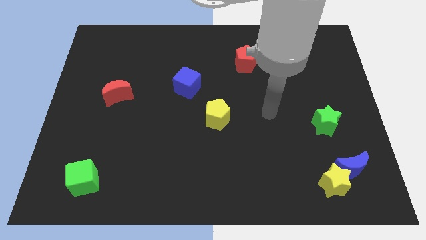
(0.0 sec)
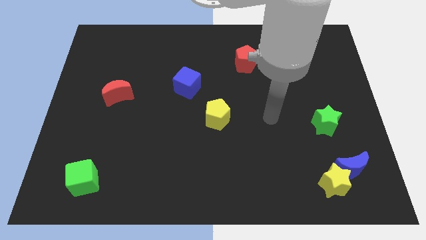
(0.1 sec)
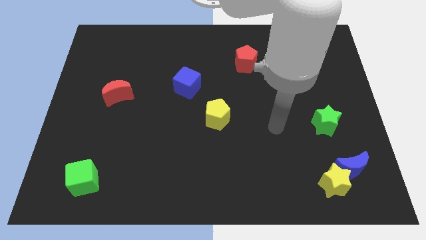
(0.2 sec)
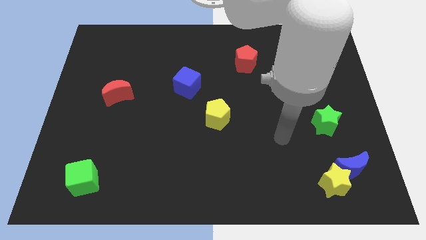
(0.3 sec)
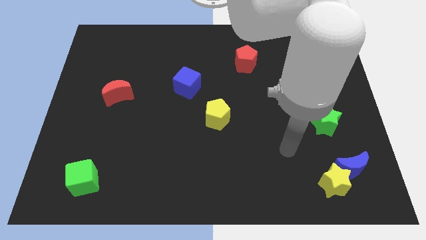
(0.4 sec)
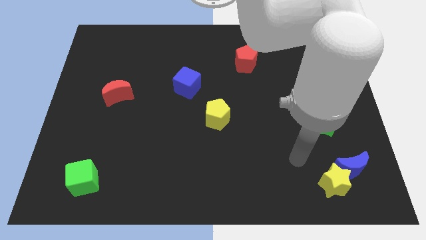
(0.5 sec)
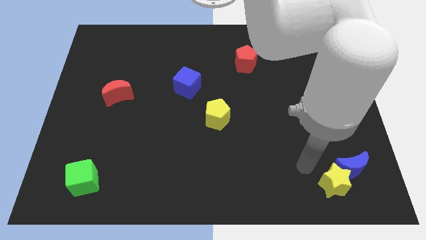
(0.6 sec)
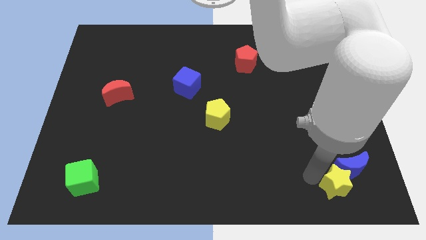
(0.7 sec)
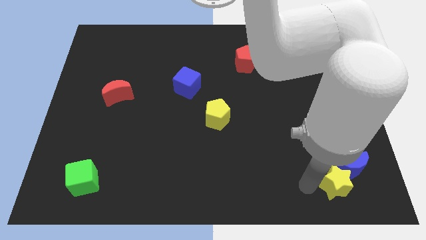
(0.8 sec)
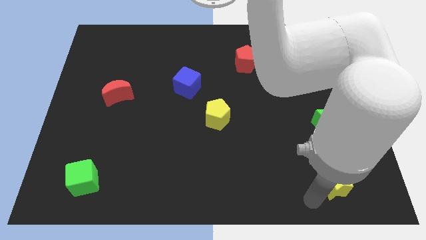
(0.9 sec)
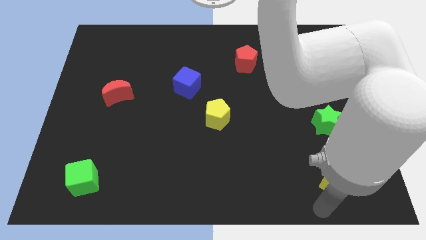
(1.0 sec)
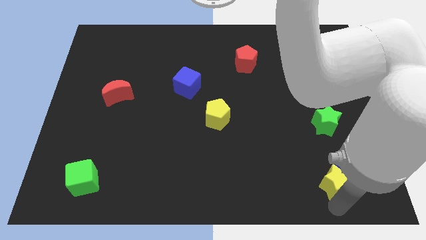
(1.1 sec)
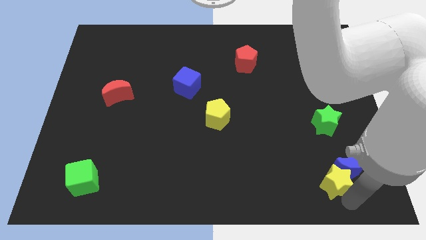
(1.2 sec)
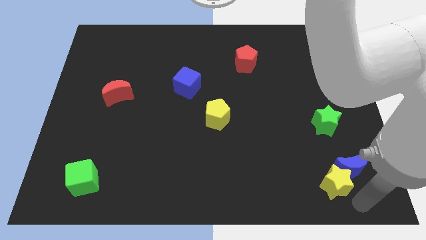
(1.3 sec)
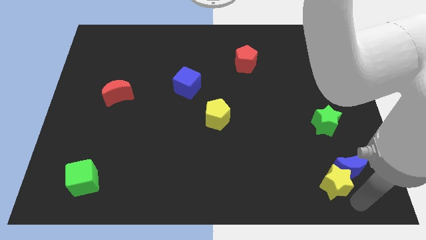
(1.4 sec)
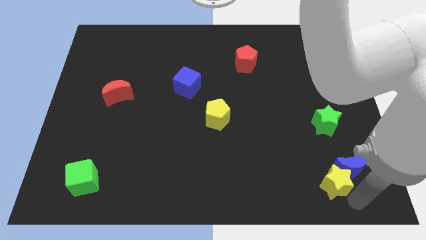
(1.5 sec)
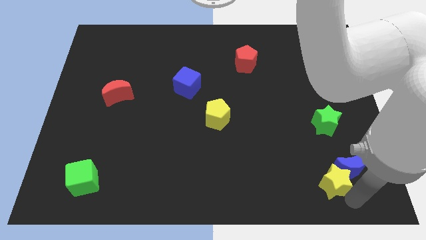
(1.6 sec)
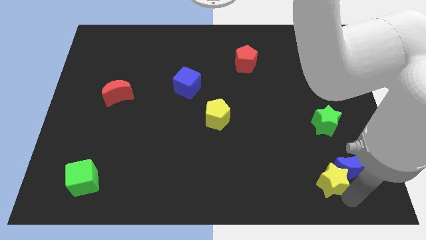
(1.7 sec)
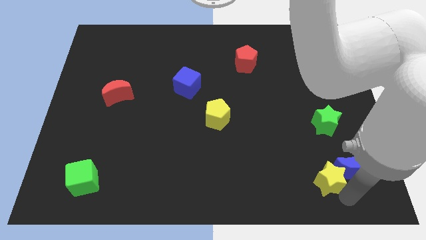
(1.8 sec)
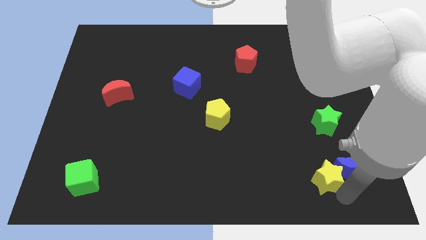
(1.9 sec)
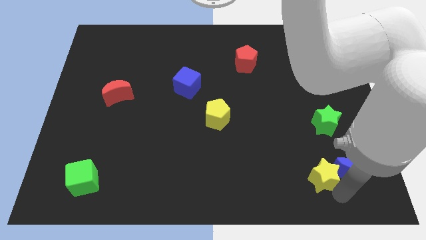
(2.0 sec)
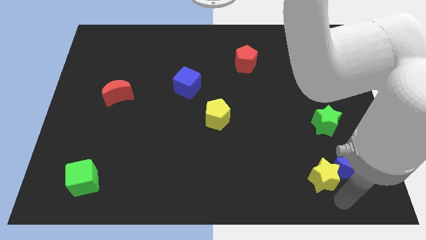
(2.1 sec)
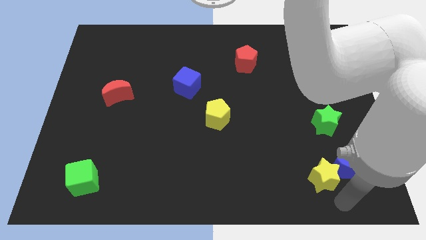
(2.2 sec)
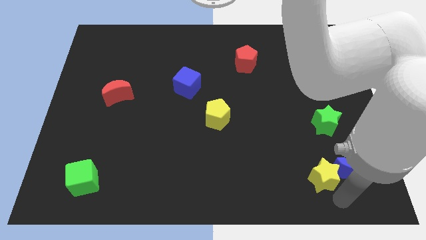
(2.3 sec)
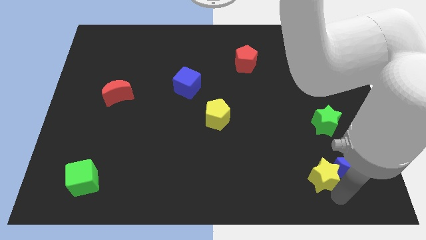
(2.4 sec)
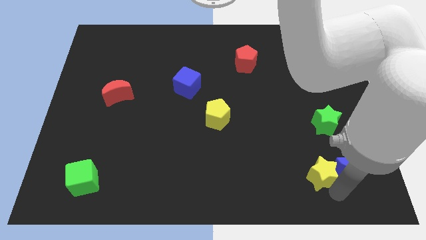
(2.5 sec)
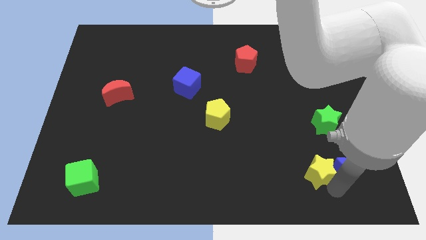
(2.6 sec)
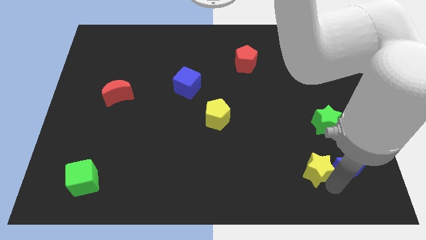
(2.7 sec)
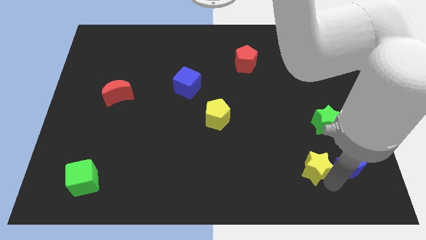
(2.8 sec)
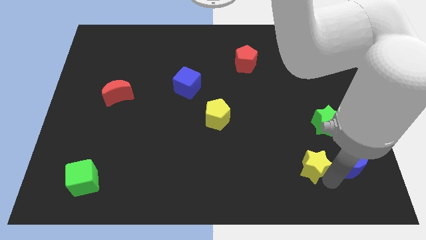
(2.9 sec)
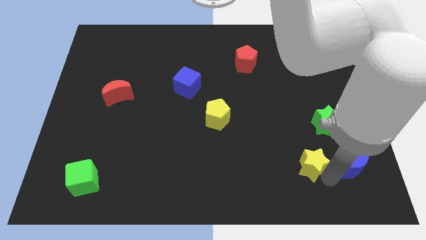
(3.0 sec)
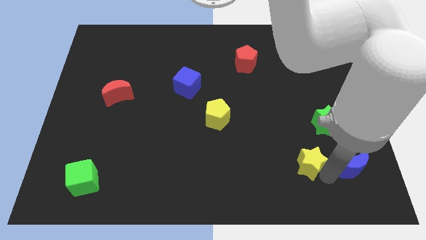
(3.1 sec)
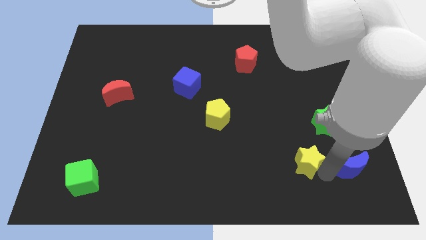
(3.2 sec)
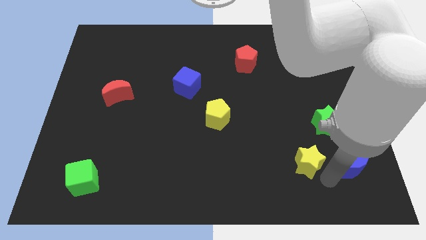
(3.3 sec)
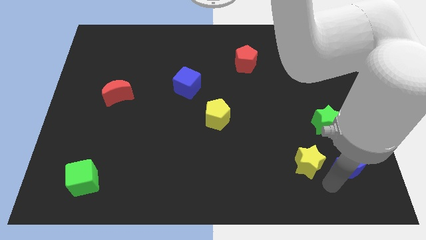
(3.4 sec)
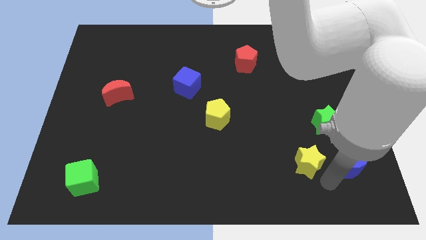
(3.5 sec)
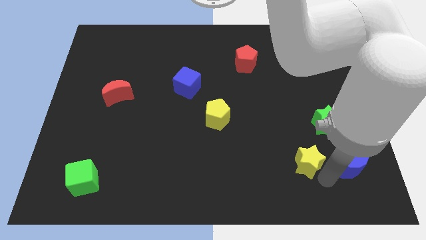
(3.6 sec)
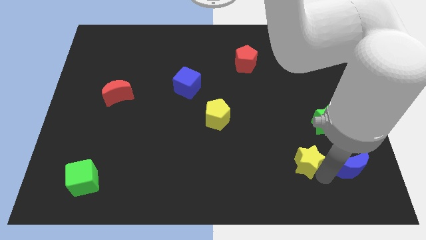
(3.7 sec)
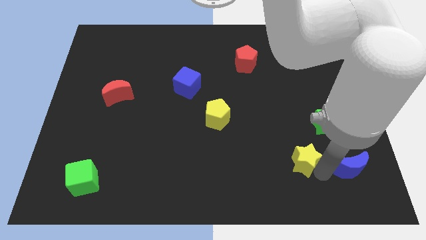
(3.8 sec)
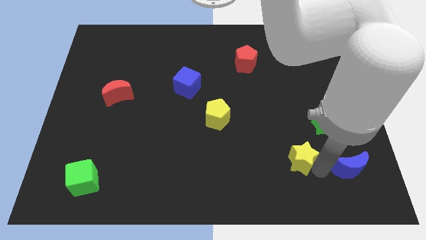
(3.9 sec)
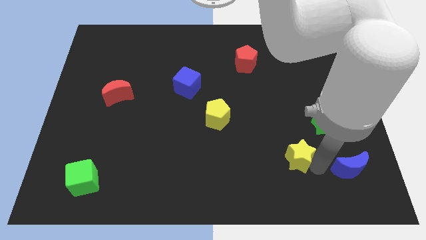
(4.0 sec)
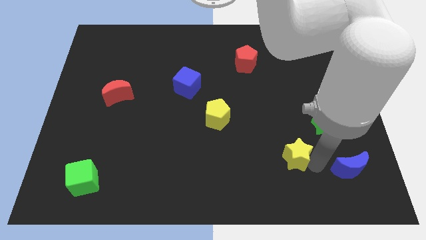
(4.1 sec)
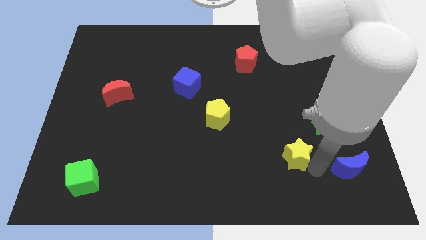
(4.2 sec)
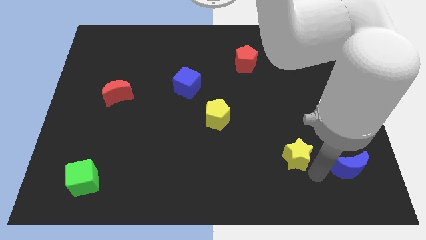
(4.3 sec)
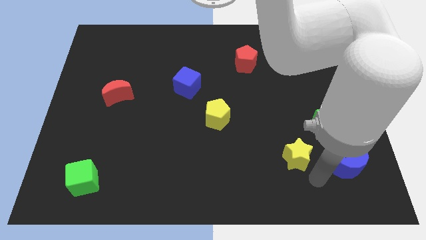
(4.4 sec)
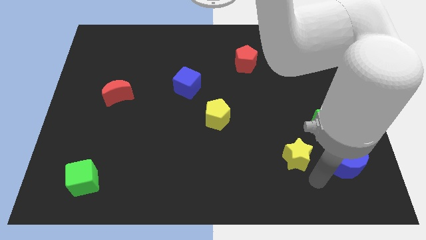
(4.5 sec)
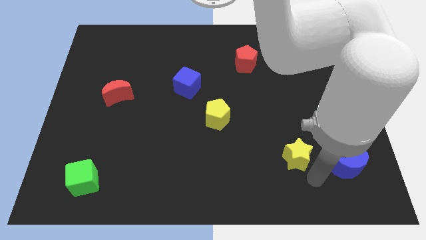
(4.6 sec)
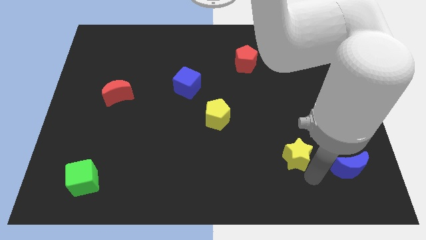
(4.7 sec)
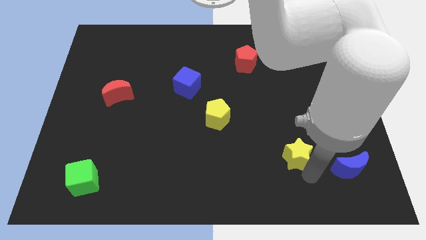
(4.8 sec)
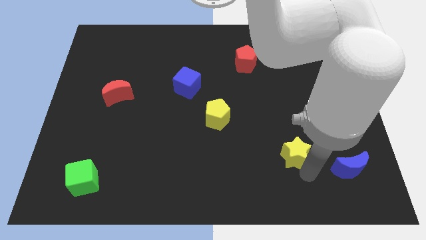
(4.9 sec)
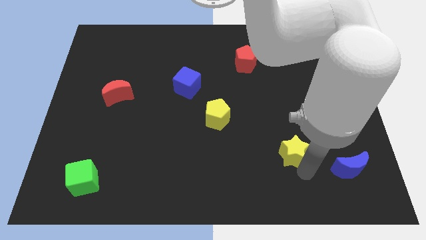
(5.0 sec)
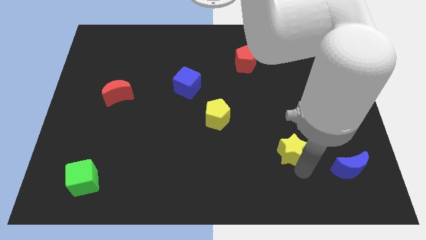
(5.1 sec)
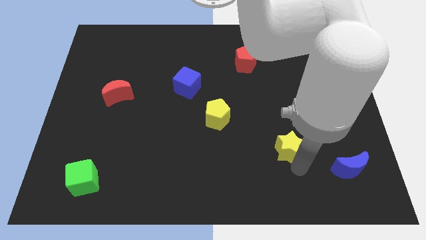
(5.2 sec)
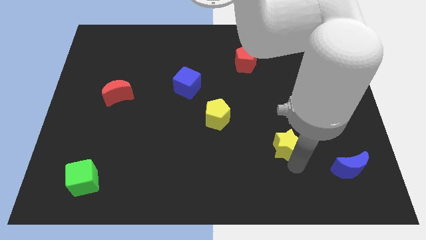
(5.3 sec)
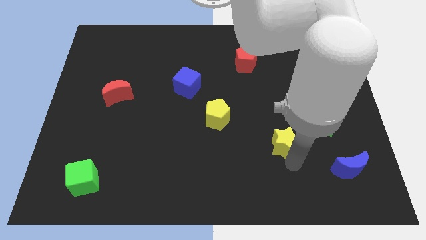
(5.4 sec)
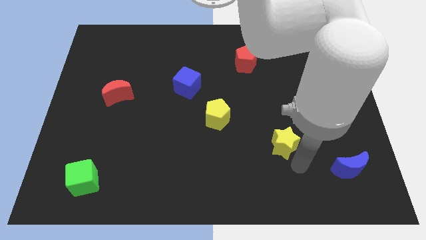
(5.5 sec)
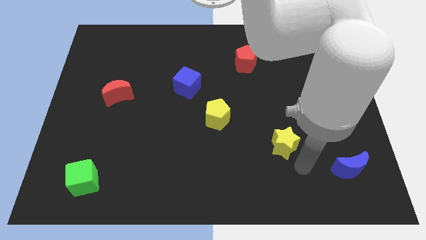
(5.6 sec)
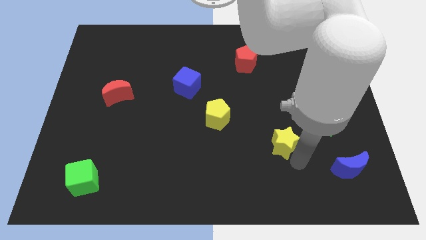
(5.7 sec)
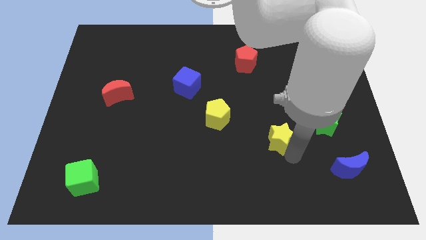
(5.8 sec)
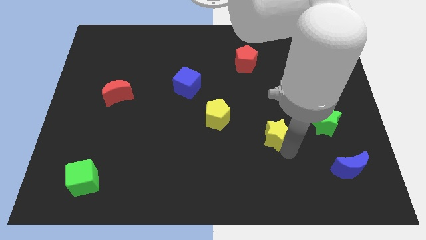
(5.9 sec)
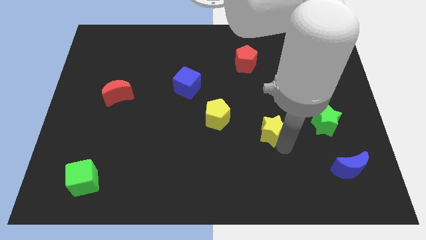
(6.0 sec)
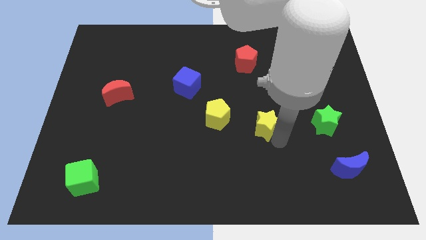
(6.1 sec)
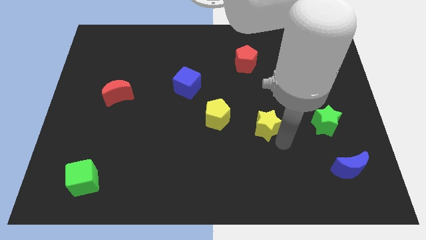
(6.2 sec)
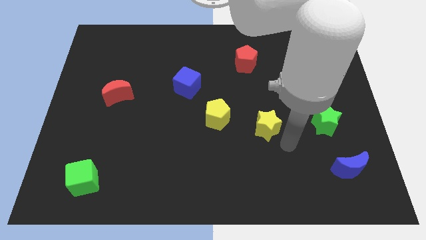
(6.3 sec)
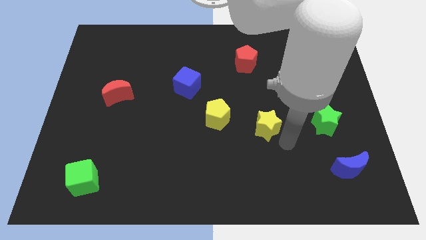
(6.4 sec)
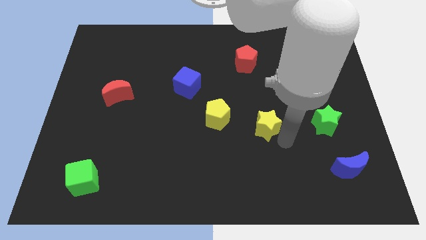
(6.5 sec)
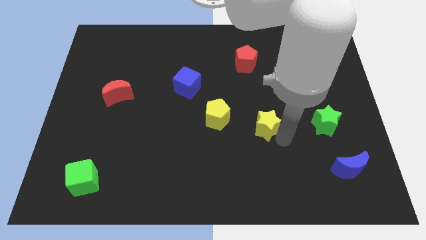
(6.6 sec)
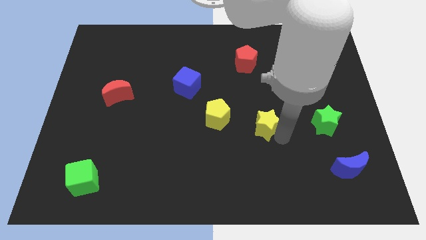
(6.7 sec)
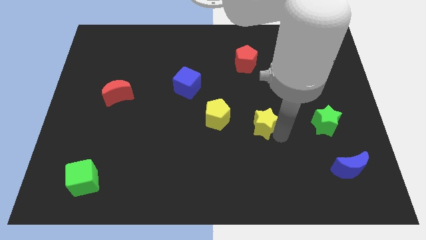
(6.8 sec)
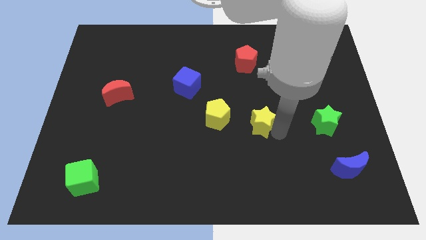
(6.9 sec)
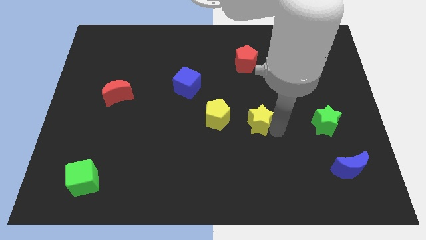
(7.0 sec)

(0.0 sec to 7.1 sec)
slide the yellow star up and to the left

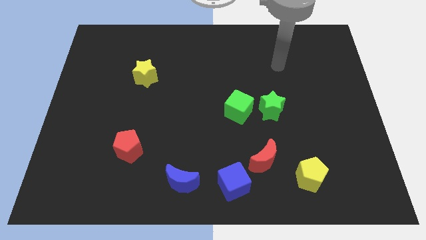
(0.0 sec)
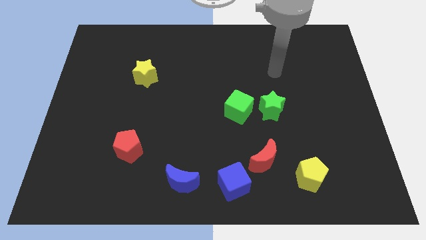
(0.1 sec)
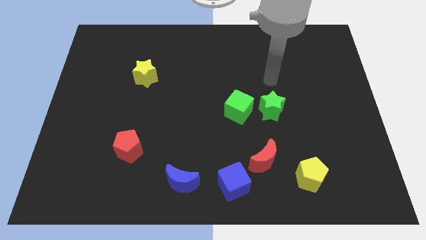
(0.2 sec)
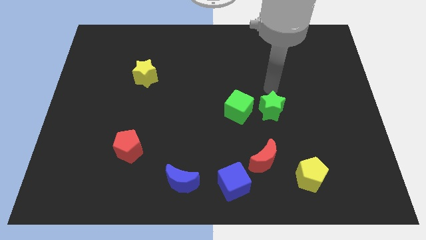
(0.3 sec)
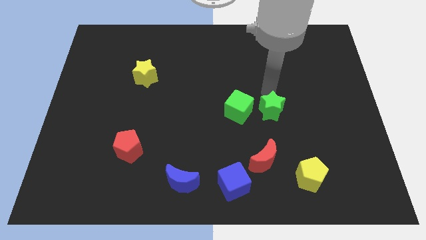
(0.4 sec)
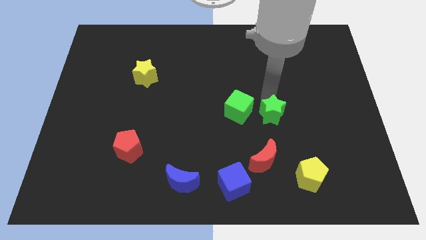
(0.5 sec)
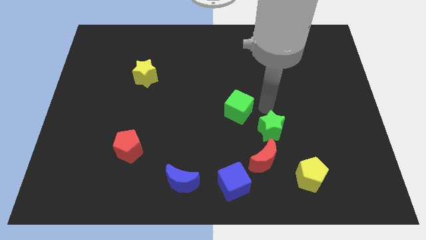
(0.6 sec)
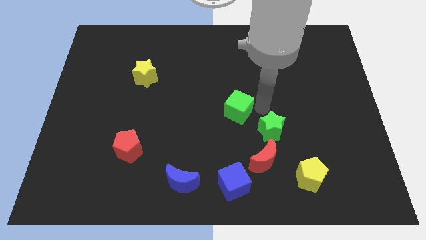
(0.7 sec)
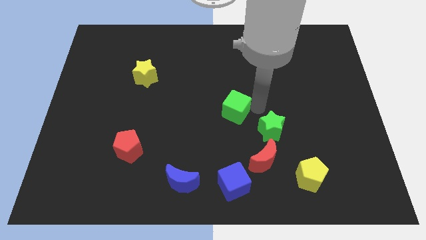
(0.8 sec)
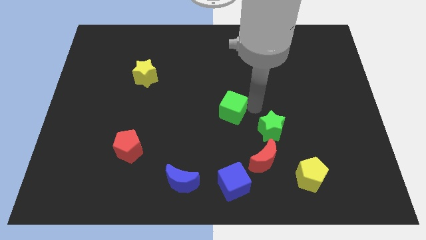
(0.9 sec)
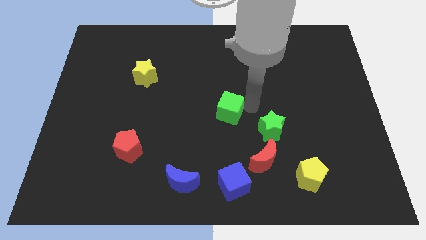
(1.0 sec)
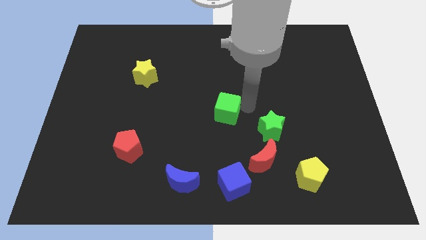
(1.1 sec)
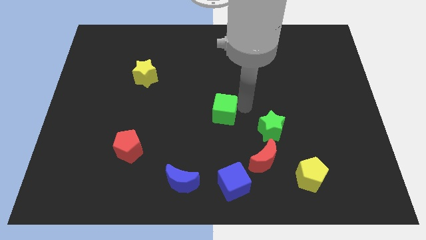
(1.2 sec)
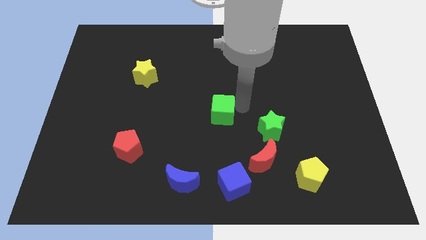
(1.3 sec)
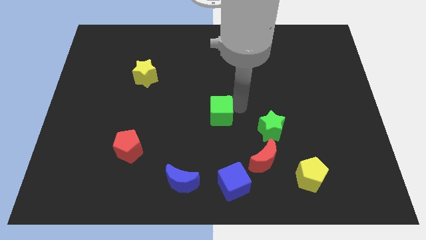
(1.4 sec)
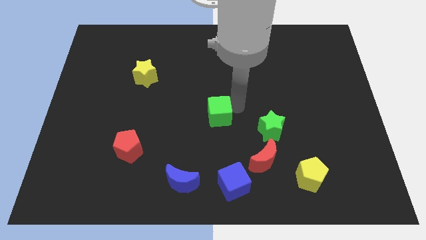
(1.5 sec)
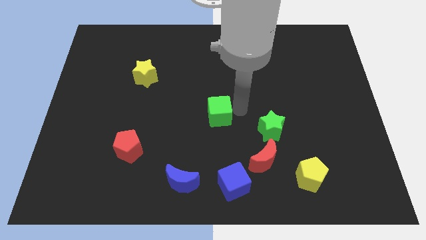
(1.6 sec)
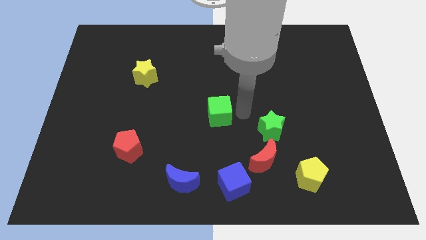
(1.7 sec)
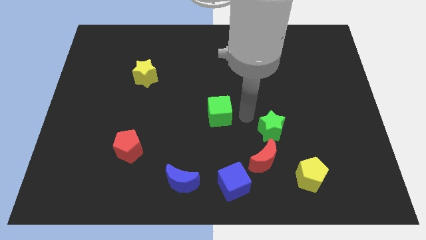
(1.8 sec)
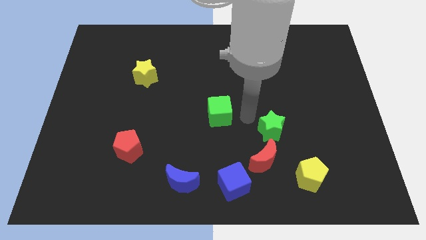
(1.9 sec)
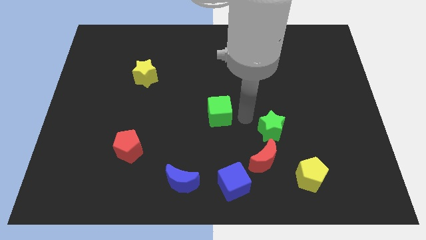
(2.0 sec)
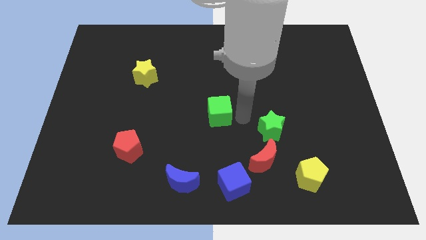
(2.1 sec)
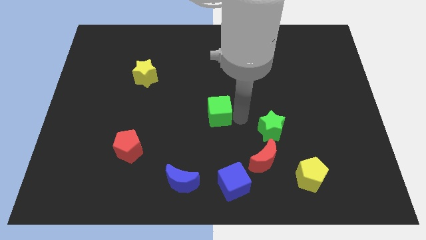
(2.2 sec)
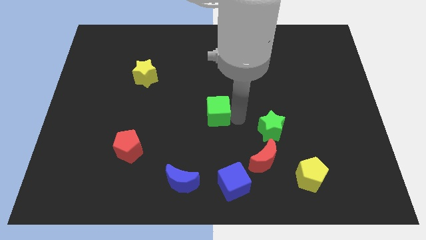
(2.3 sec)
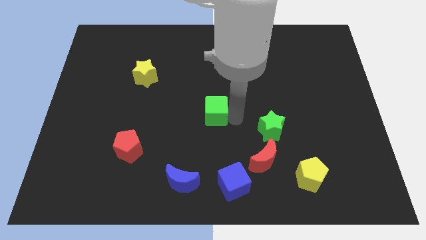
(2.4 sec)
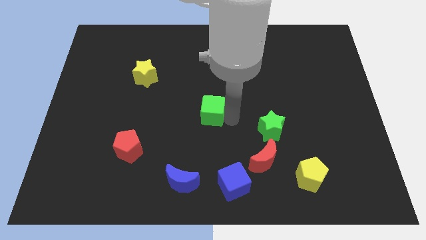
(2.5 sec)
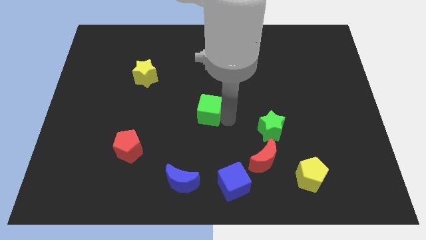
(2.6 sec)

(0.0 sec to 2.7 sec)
slide the green cube slightly left
